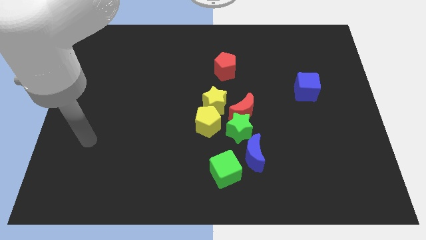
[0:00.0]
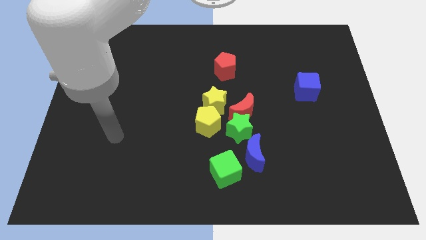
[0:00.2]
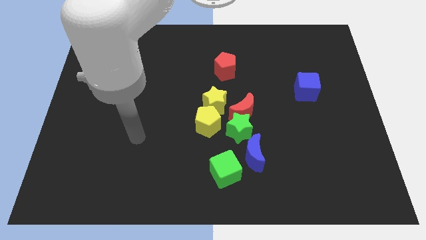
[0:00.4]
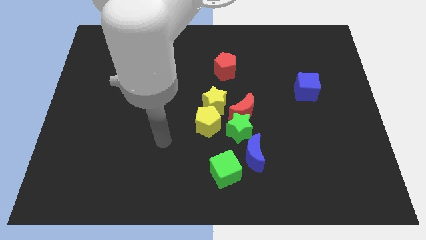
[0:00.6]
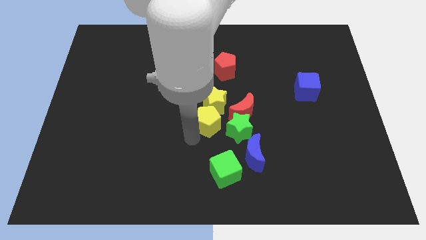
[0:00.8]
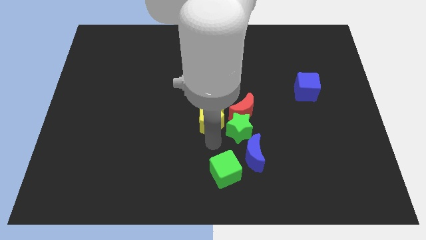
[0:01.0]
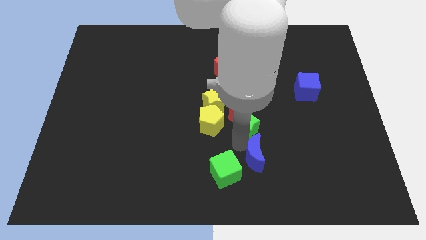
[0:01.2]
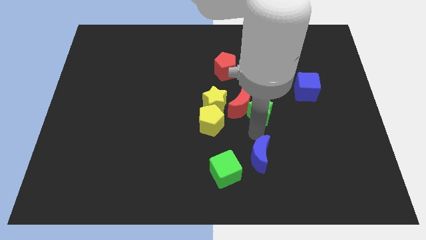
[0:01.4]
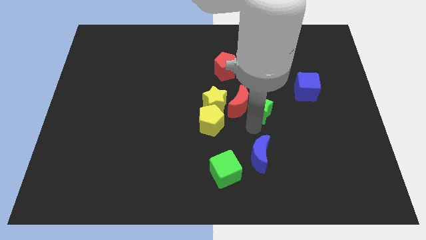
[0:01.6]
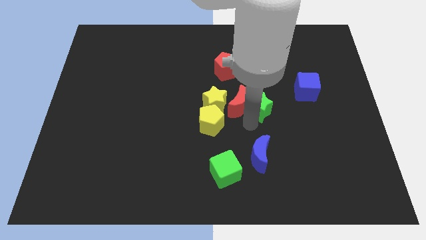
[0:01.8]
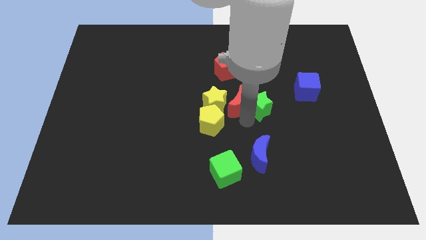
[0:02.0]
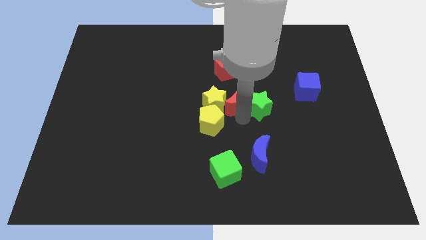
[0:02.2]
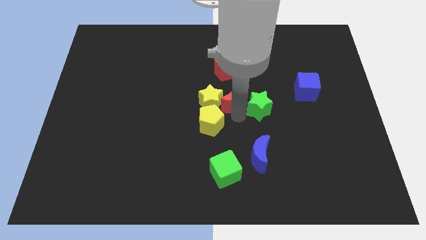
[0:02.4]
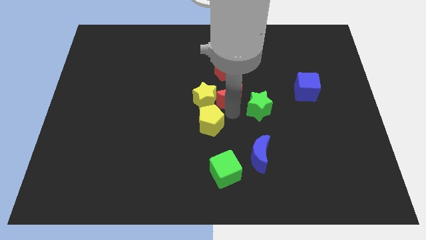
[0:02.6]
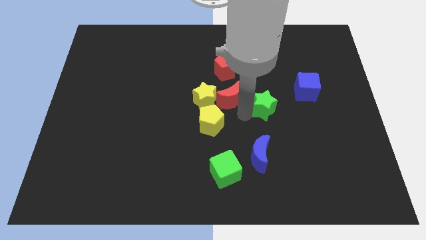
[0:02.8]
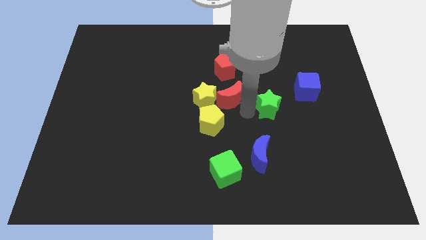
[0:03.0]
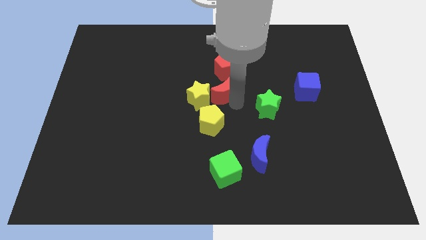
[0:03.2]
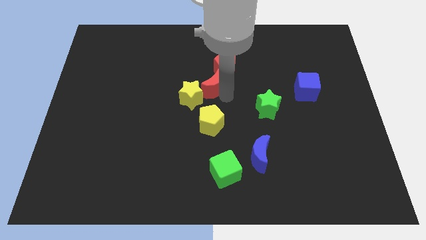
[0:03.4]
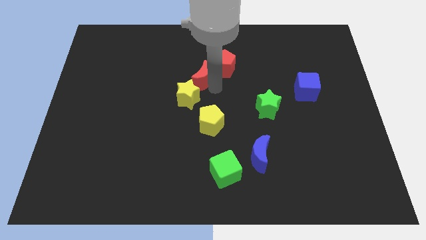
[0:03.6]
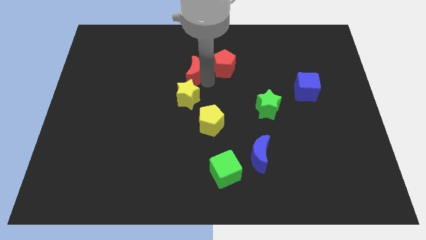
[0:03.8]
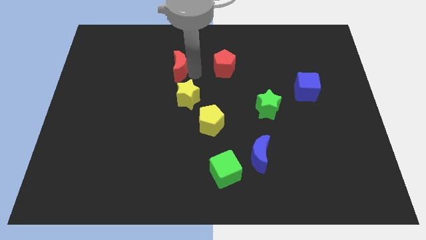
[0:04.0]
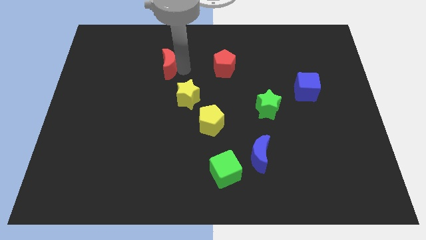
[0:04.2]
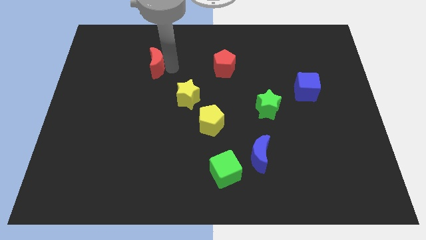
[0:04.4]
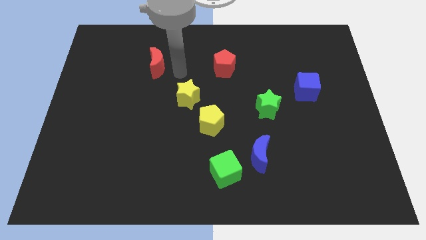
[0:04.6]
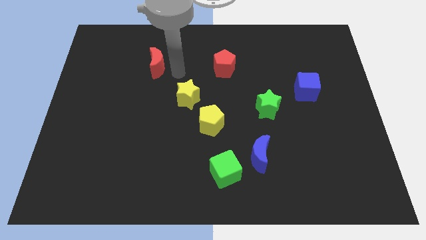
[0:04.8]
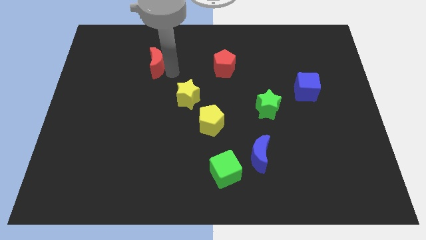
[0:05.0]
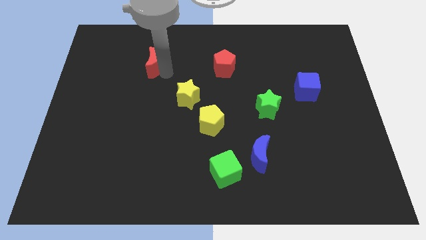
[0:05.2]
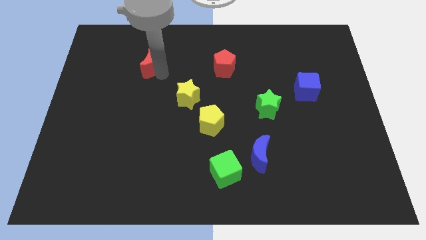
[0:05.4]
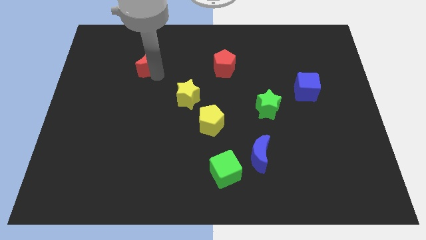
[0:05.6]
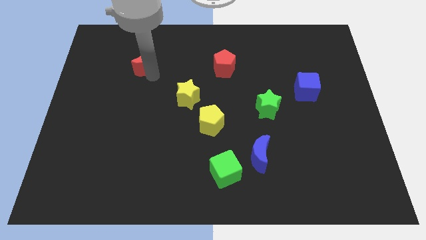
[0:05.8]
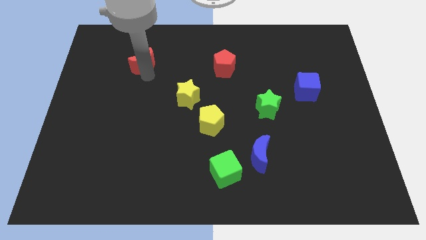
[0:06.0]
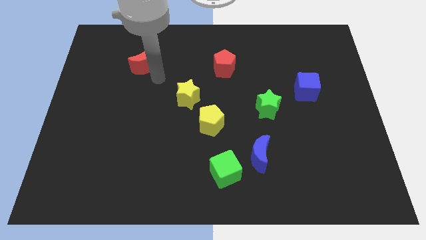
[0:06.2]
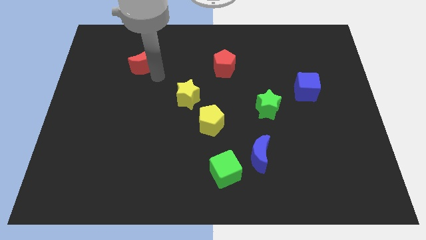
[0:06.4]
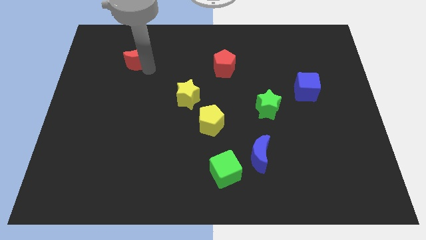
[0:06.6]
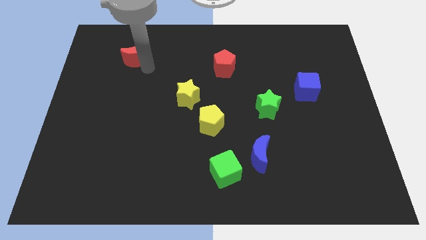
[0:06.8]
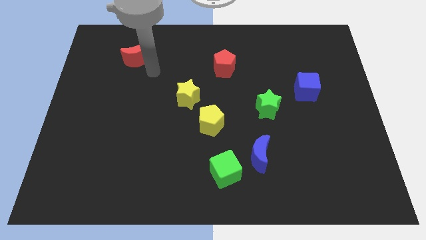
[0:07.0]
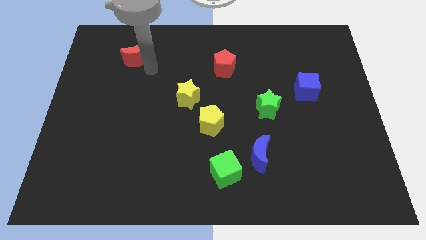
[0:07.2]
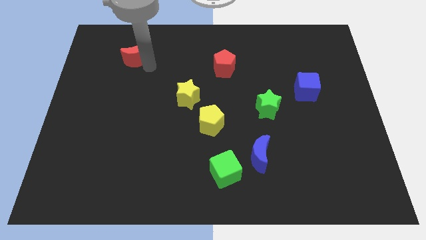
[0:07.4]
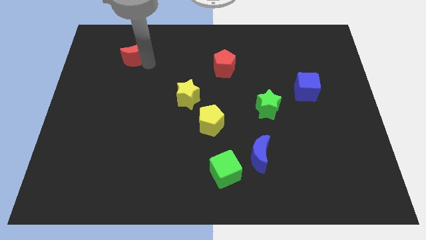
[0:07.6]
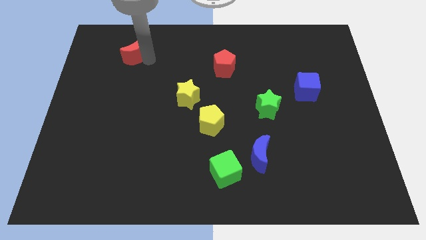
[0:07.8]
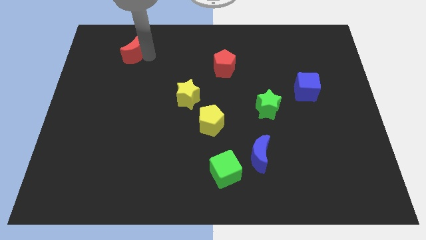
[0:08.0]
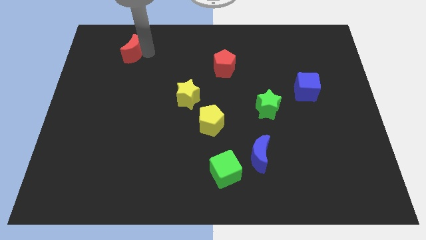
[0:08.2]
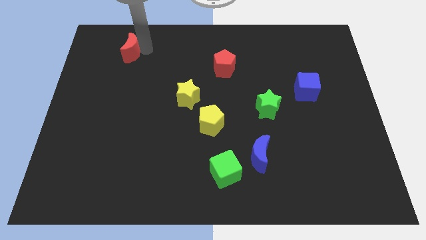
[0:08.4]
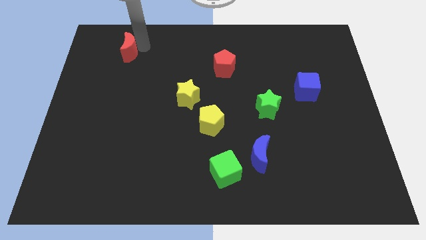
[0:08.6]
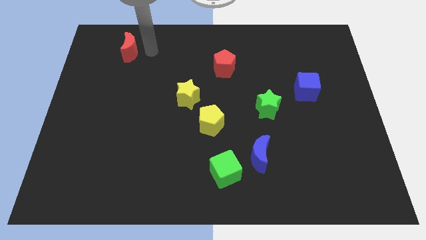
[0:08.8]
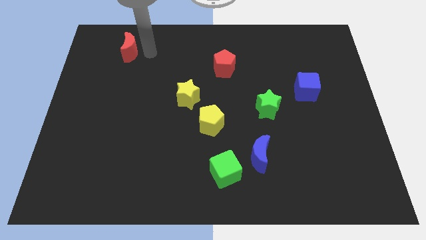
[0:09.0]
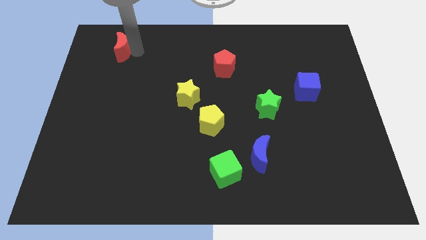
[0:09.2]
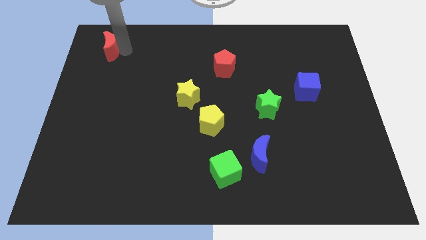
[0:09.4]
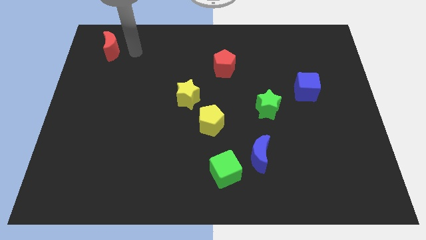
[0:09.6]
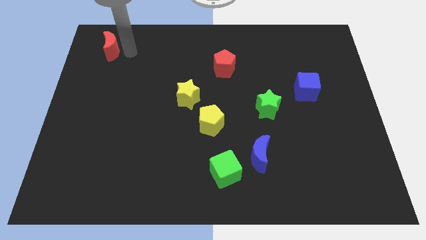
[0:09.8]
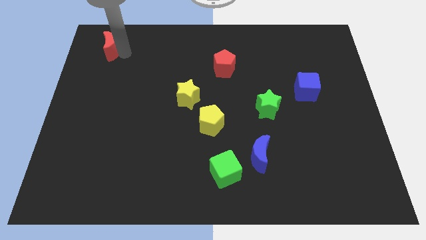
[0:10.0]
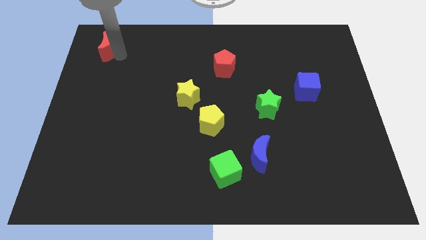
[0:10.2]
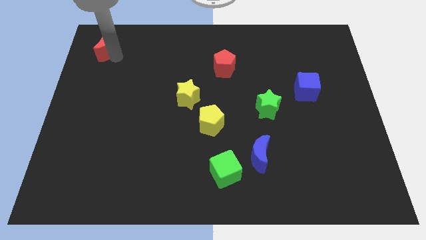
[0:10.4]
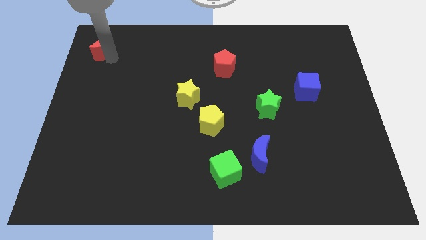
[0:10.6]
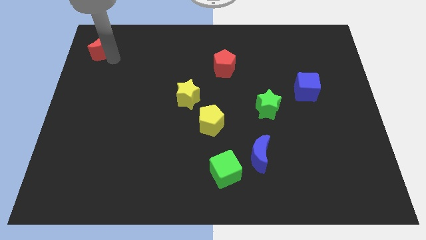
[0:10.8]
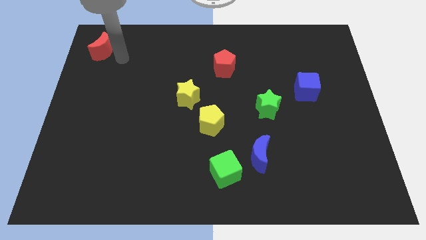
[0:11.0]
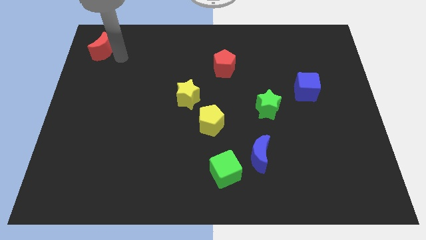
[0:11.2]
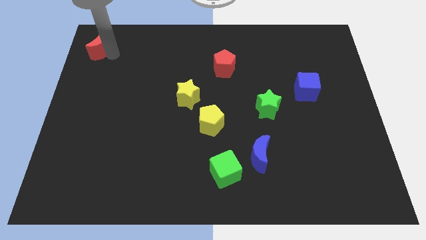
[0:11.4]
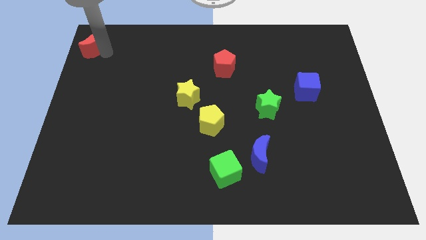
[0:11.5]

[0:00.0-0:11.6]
move the red moon to the top left of the board
